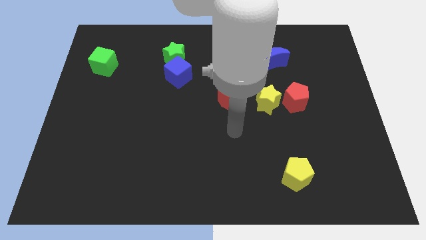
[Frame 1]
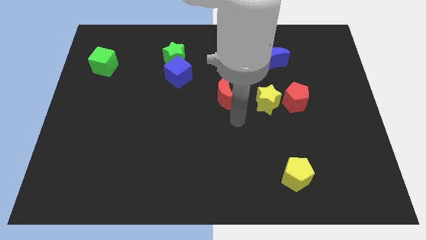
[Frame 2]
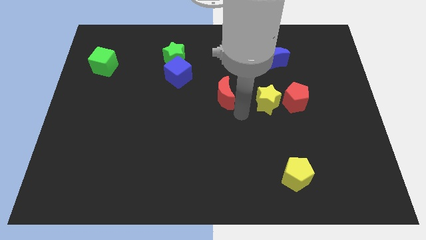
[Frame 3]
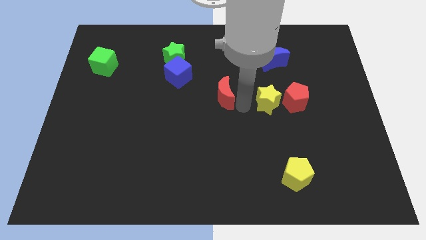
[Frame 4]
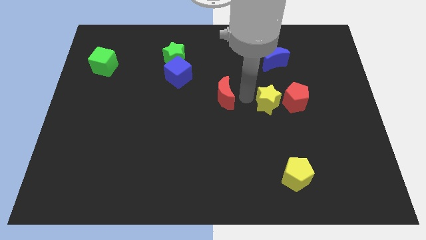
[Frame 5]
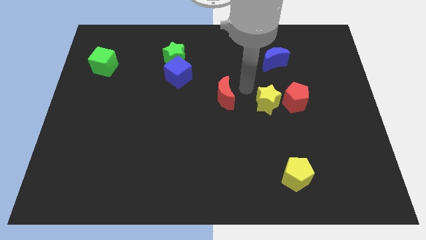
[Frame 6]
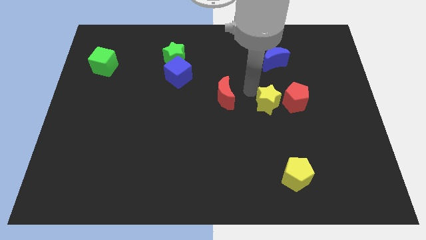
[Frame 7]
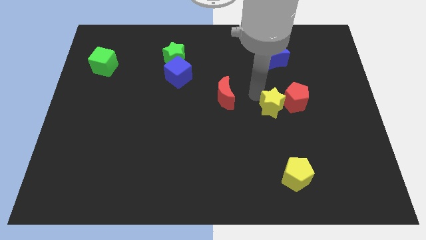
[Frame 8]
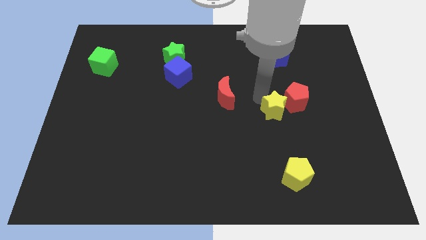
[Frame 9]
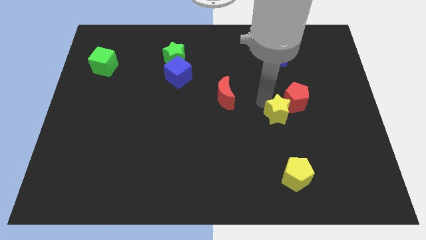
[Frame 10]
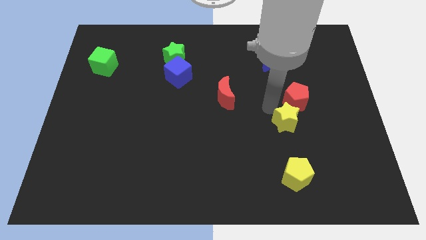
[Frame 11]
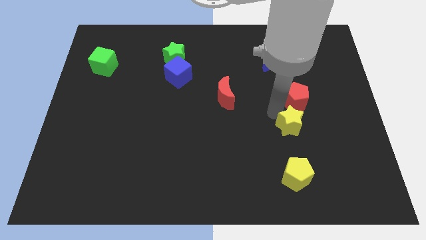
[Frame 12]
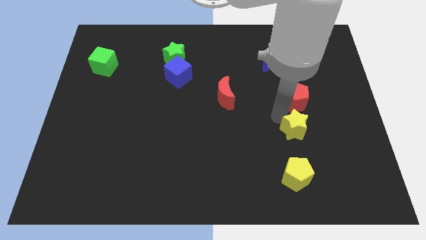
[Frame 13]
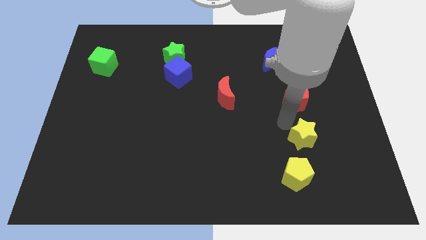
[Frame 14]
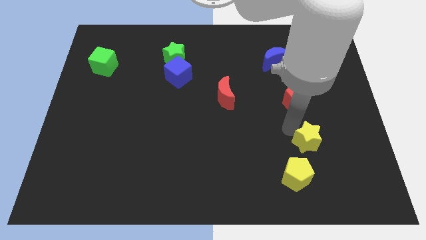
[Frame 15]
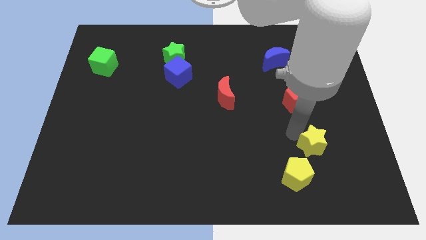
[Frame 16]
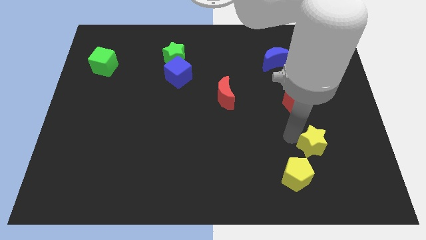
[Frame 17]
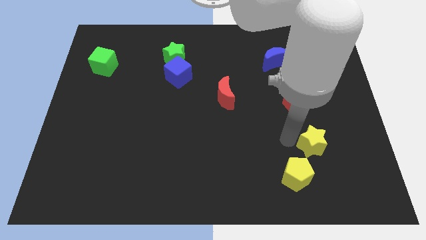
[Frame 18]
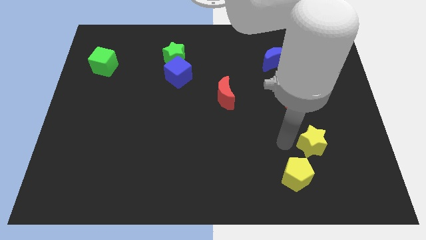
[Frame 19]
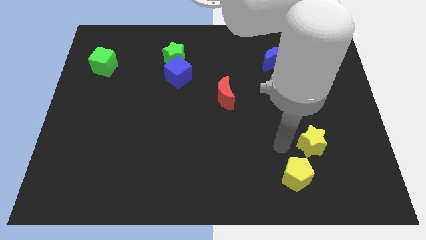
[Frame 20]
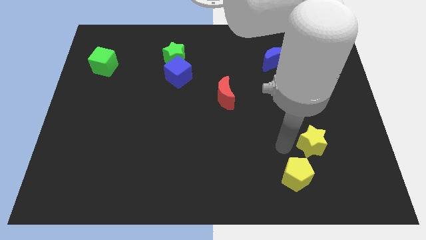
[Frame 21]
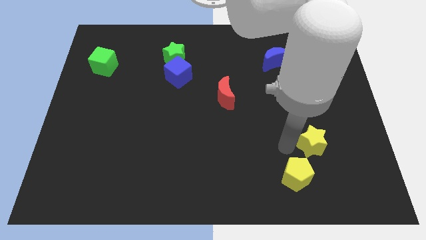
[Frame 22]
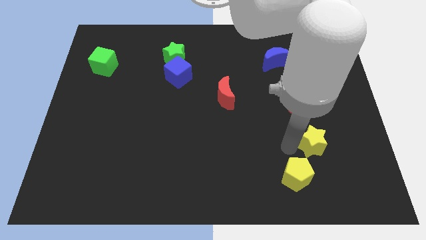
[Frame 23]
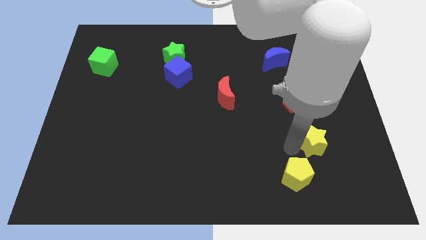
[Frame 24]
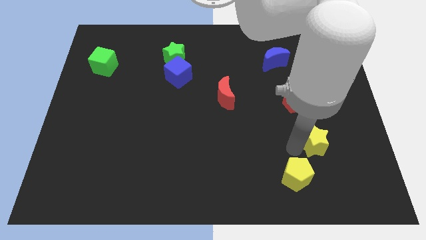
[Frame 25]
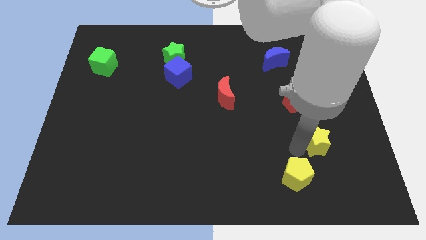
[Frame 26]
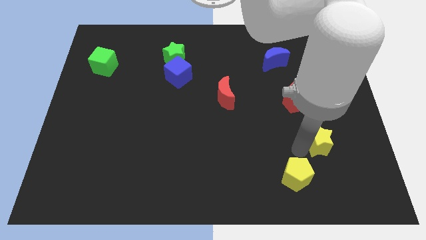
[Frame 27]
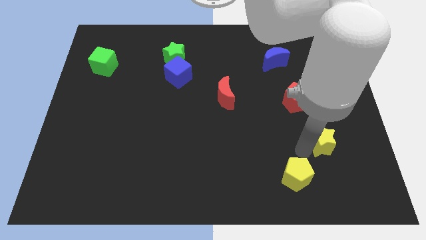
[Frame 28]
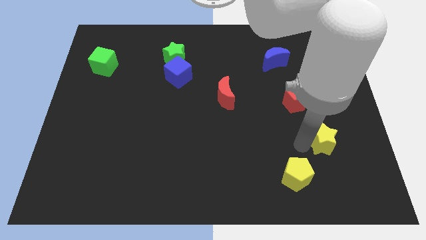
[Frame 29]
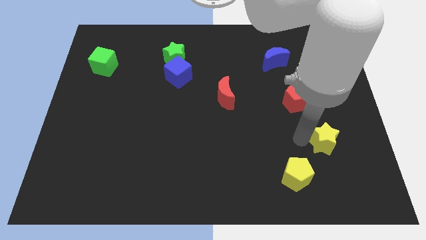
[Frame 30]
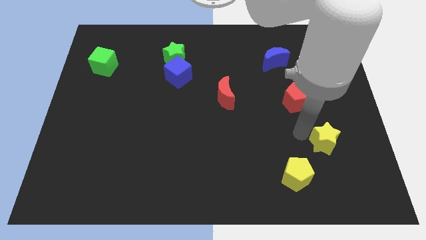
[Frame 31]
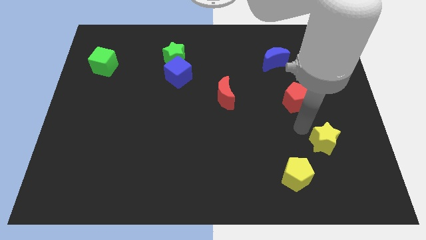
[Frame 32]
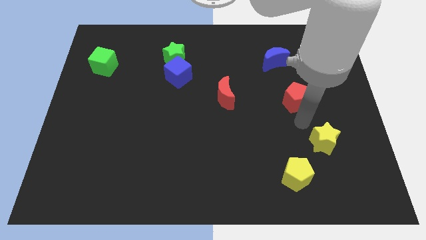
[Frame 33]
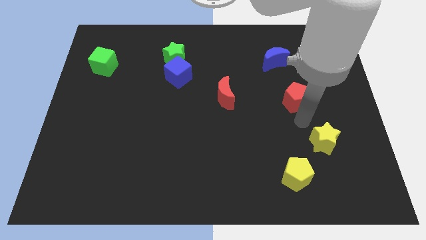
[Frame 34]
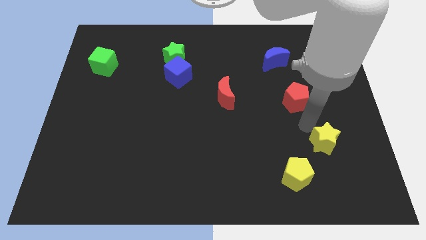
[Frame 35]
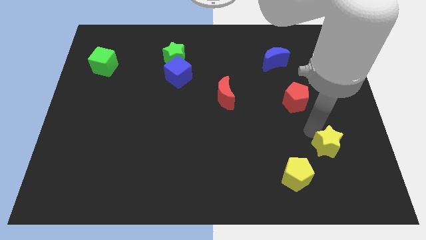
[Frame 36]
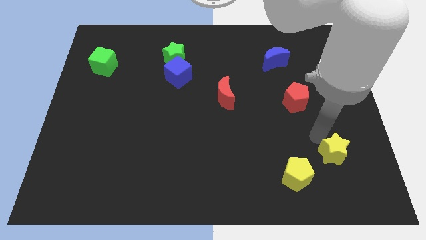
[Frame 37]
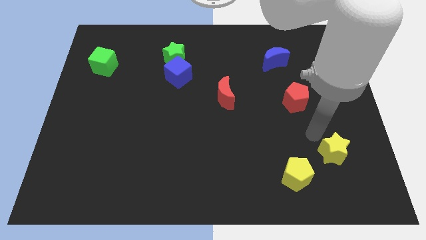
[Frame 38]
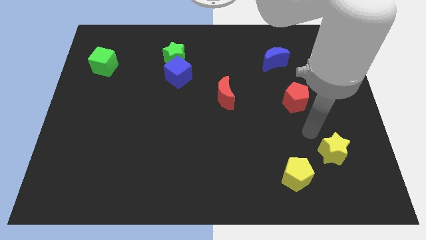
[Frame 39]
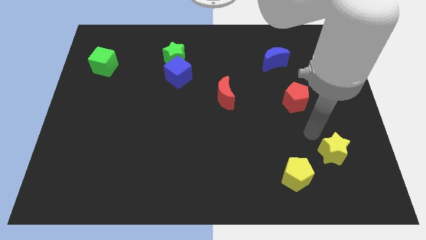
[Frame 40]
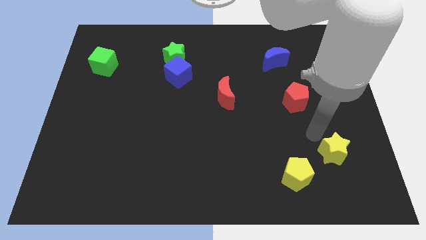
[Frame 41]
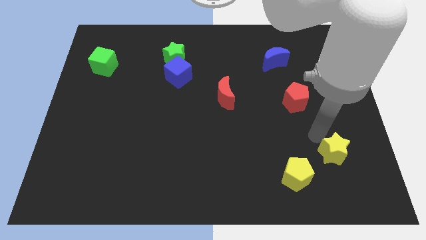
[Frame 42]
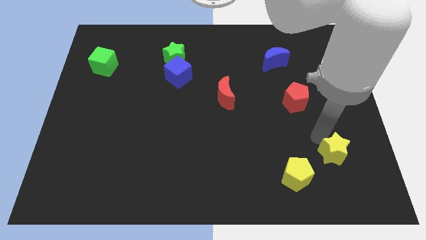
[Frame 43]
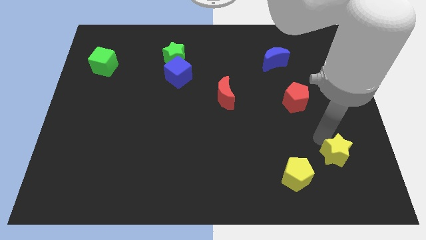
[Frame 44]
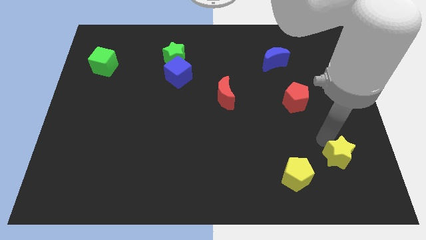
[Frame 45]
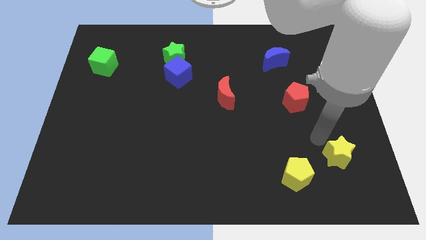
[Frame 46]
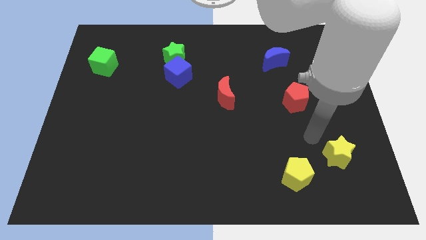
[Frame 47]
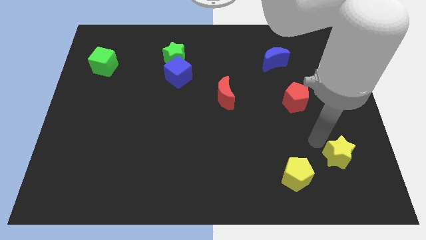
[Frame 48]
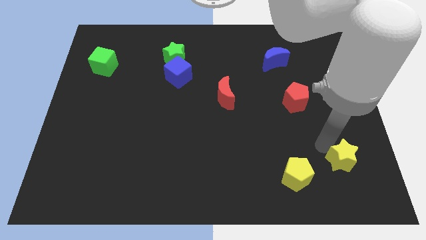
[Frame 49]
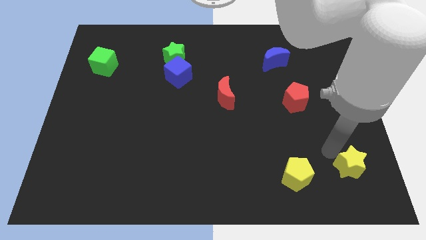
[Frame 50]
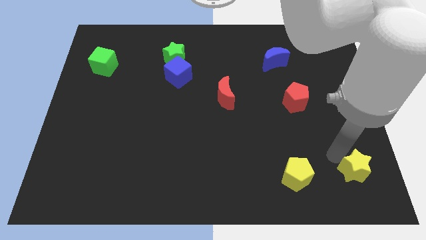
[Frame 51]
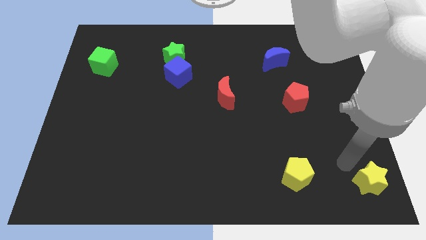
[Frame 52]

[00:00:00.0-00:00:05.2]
slide the yellow star to the lower right corner

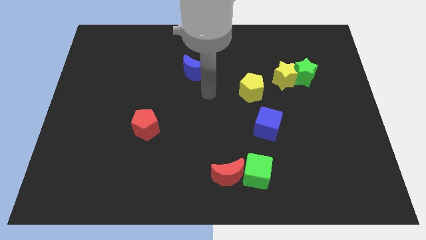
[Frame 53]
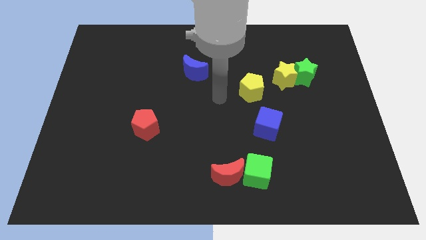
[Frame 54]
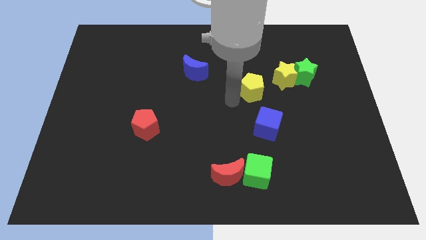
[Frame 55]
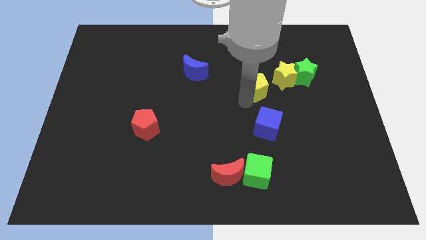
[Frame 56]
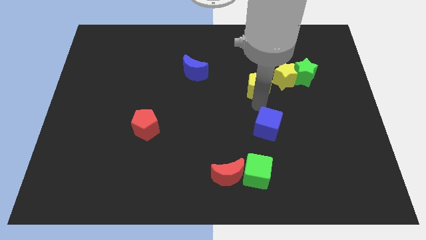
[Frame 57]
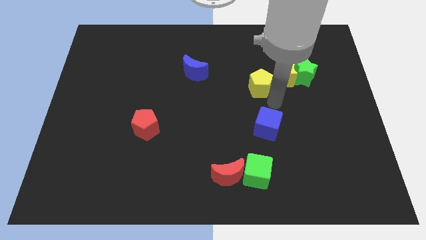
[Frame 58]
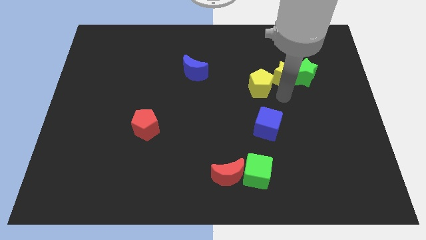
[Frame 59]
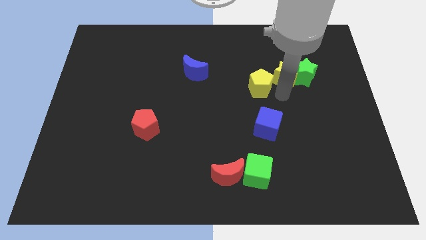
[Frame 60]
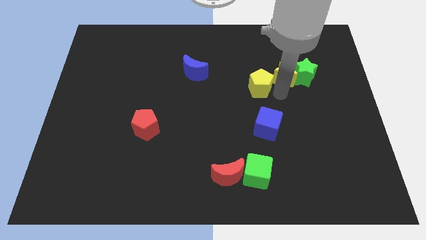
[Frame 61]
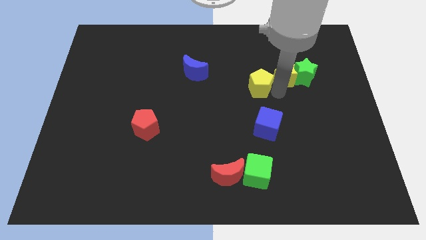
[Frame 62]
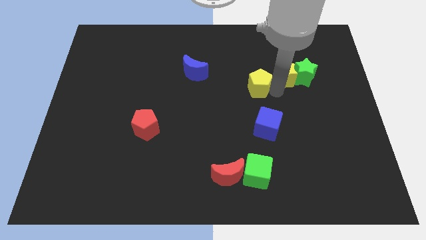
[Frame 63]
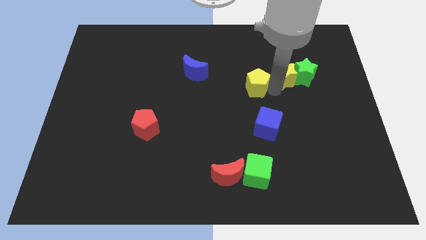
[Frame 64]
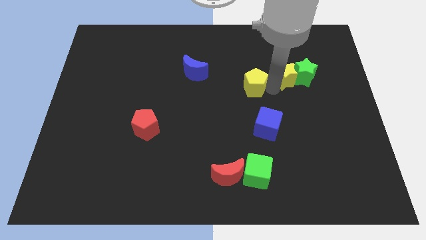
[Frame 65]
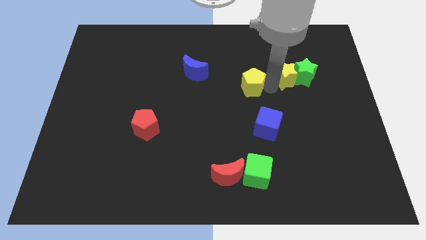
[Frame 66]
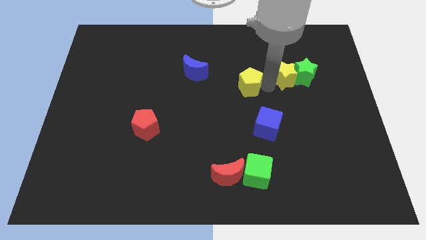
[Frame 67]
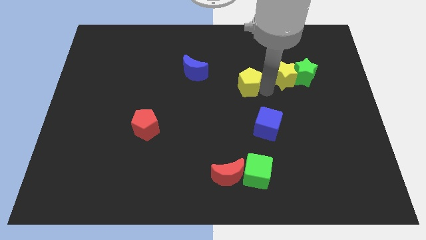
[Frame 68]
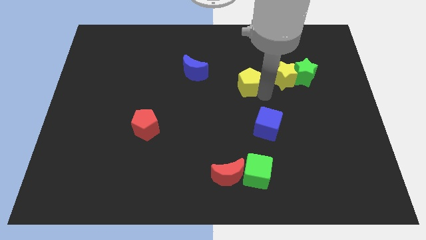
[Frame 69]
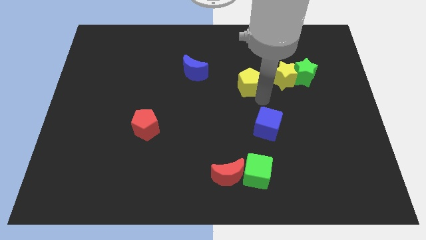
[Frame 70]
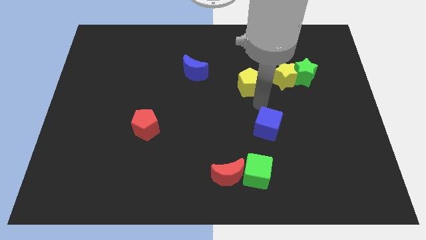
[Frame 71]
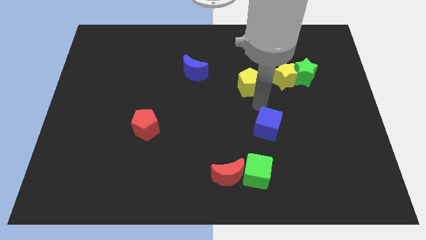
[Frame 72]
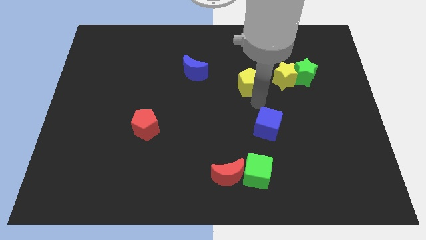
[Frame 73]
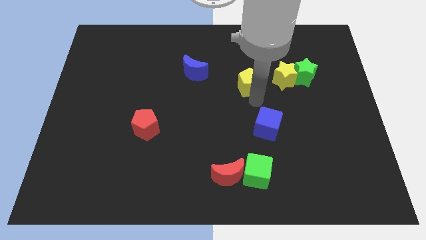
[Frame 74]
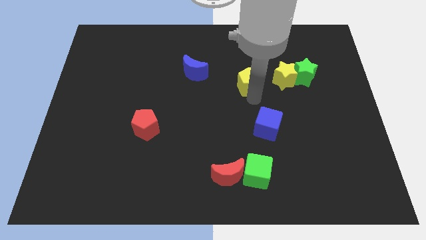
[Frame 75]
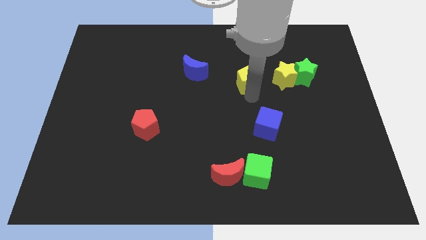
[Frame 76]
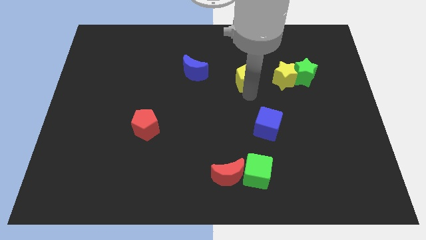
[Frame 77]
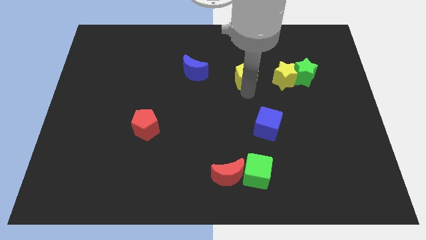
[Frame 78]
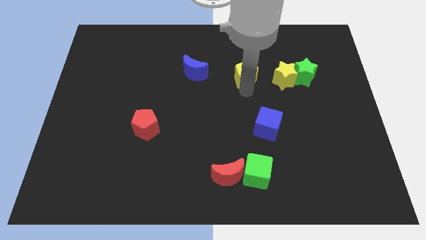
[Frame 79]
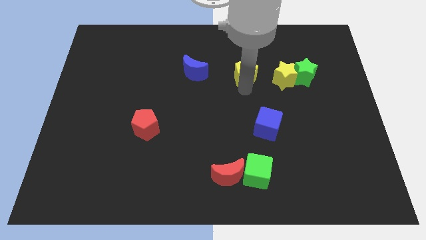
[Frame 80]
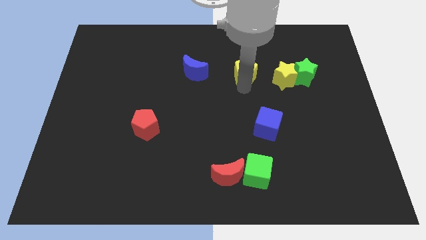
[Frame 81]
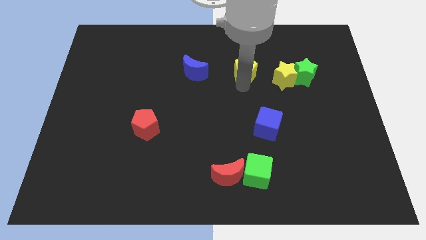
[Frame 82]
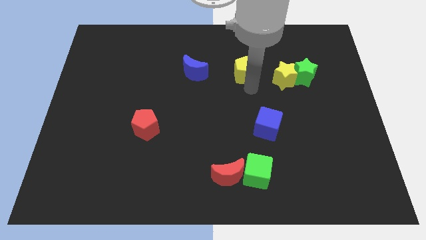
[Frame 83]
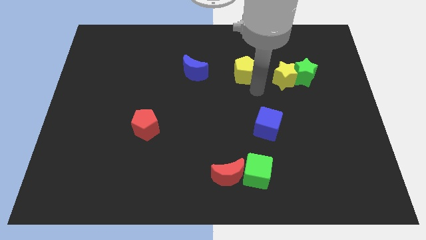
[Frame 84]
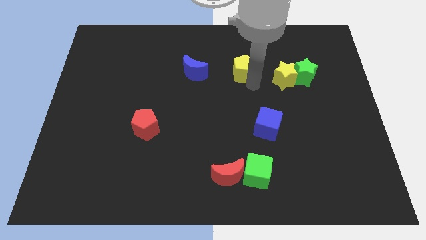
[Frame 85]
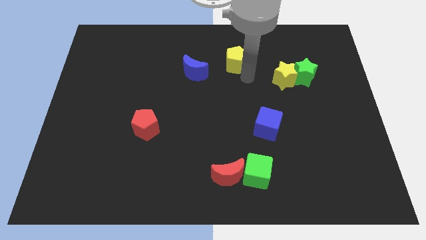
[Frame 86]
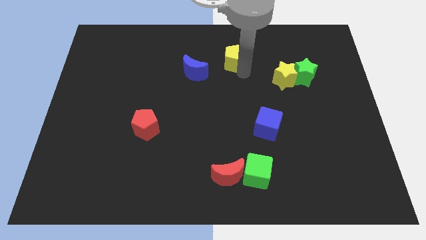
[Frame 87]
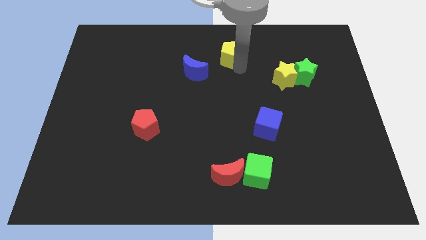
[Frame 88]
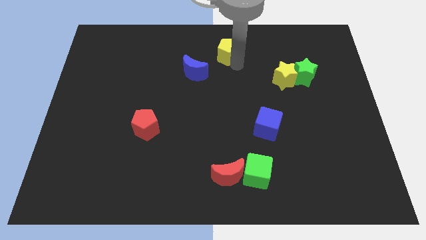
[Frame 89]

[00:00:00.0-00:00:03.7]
slide the yellow pentagon to the towards your base
